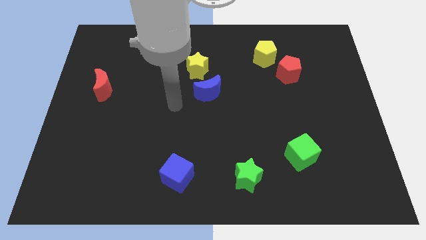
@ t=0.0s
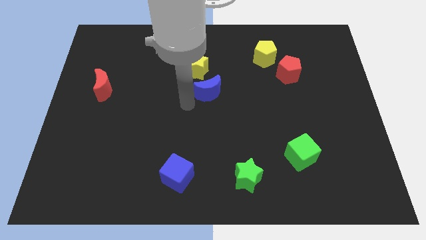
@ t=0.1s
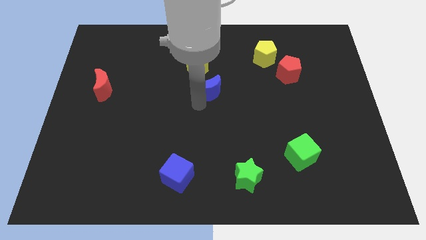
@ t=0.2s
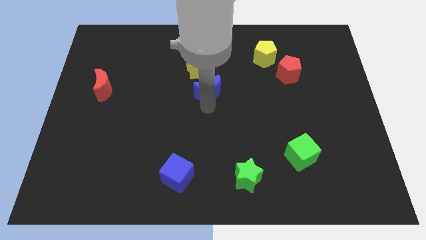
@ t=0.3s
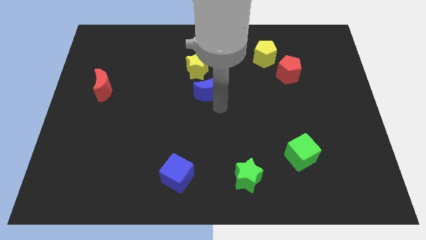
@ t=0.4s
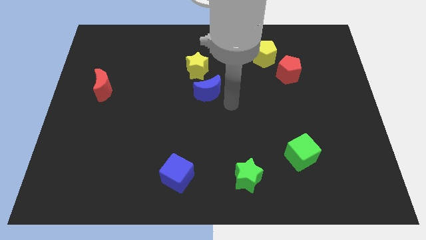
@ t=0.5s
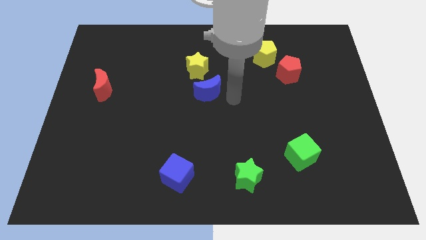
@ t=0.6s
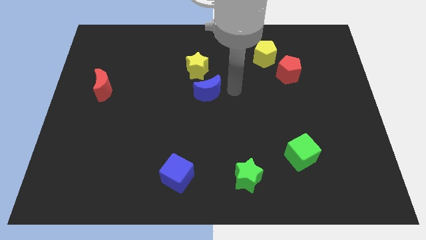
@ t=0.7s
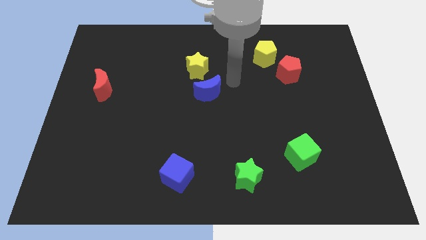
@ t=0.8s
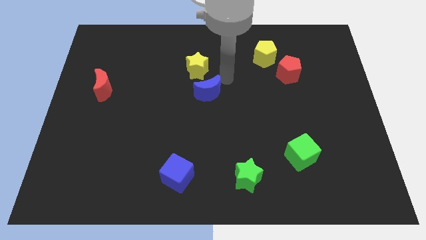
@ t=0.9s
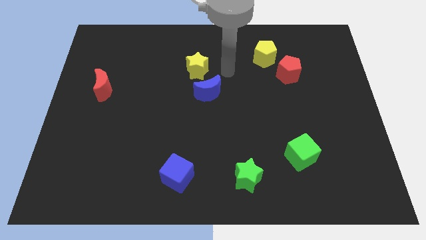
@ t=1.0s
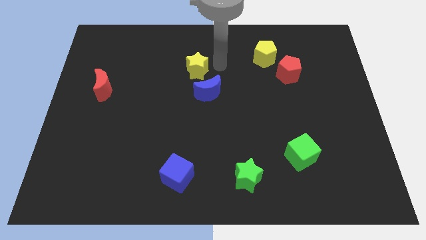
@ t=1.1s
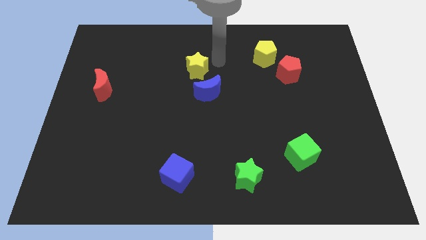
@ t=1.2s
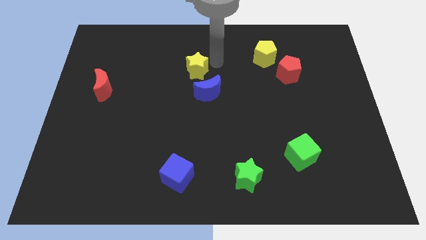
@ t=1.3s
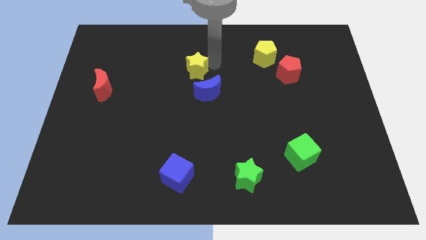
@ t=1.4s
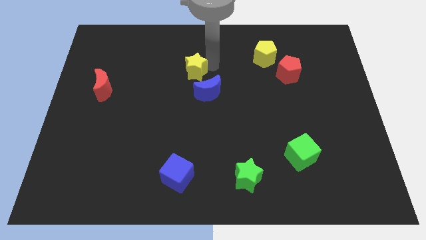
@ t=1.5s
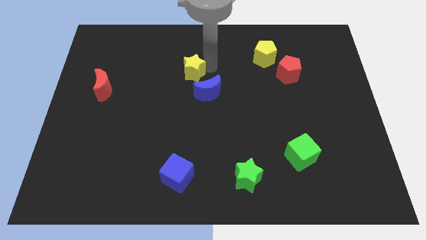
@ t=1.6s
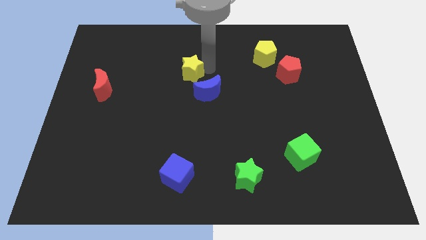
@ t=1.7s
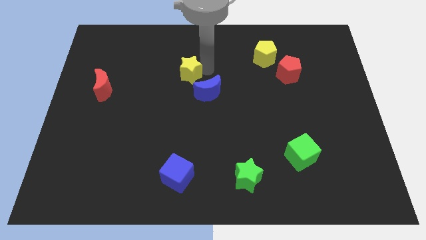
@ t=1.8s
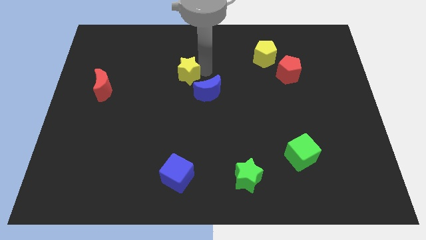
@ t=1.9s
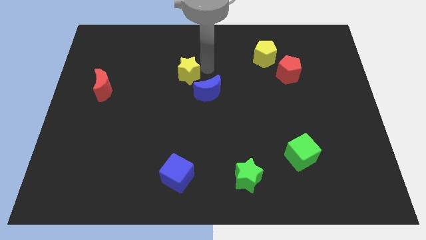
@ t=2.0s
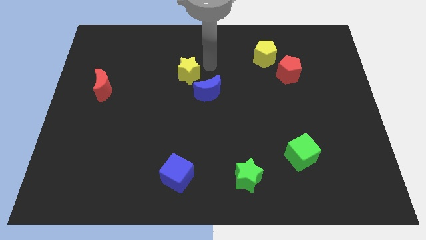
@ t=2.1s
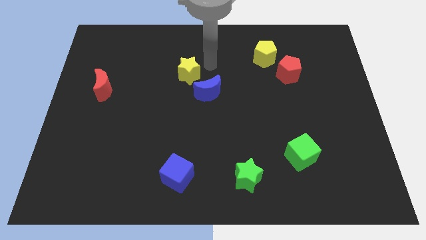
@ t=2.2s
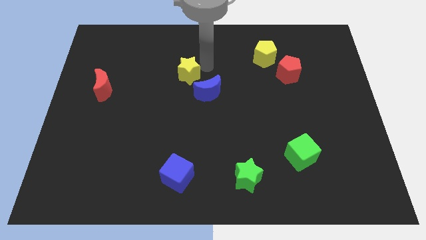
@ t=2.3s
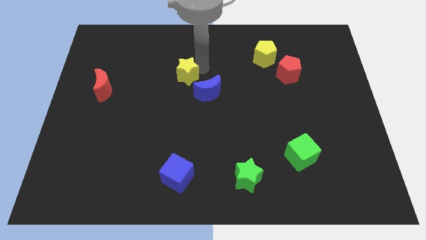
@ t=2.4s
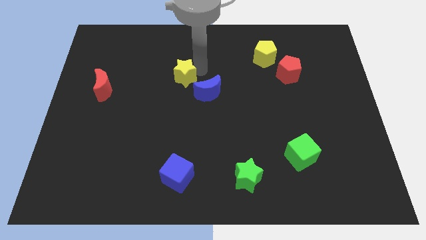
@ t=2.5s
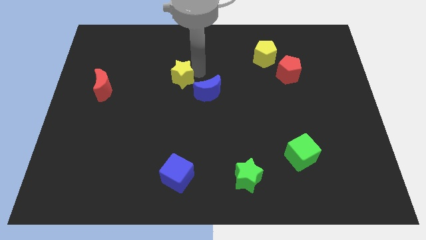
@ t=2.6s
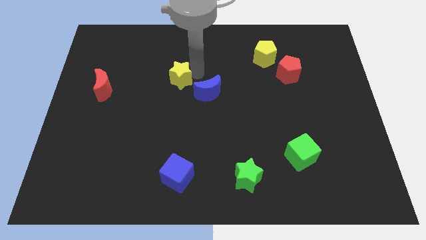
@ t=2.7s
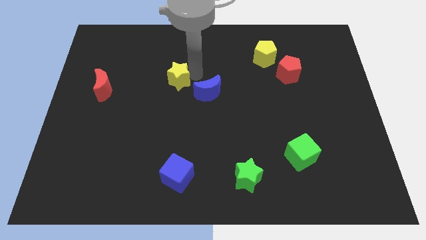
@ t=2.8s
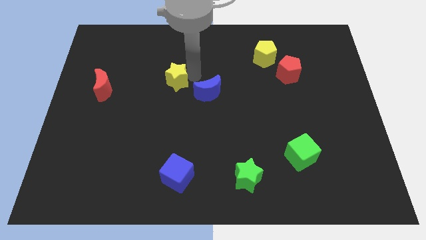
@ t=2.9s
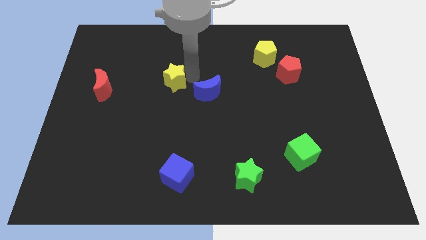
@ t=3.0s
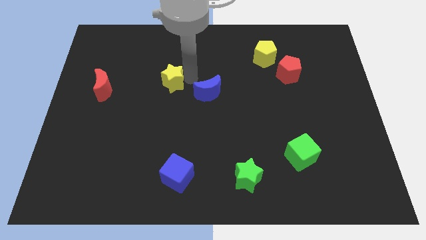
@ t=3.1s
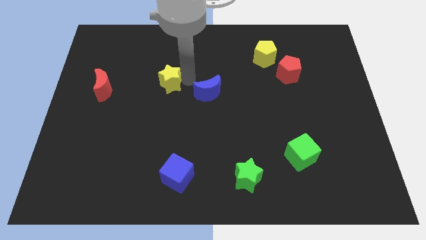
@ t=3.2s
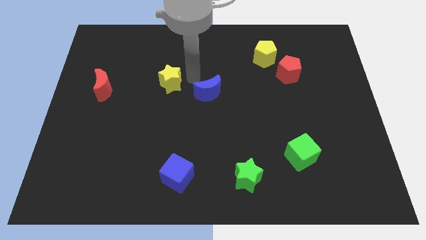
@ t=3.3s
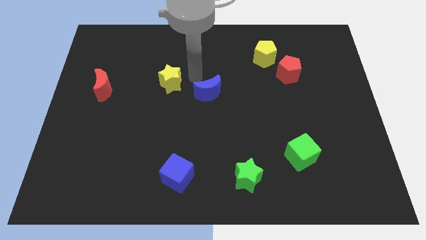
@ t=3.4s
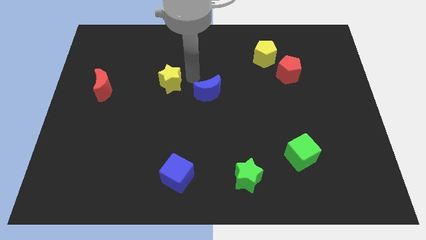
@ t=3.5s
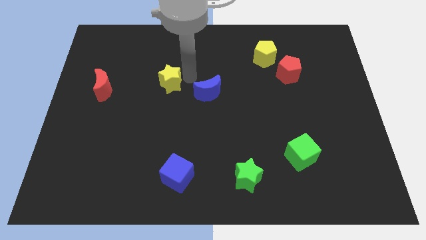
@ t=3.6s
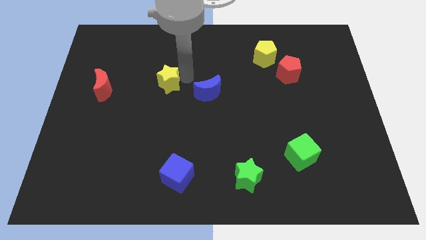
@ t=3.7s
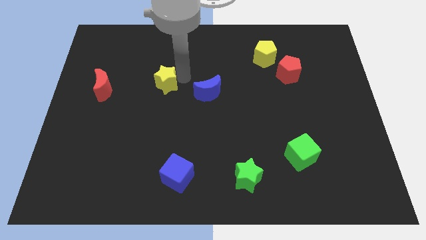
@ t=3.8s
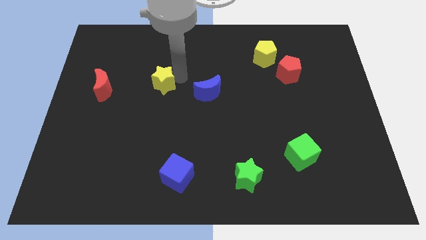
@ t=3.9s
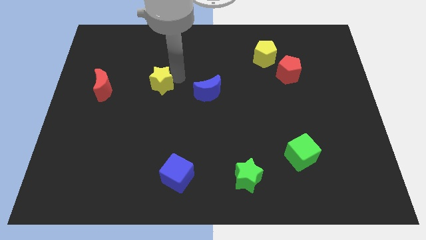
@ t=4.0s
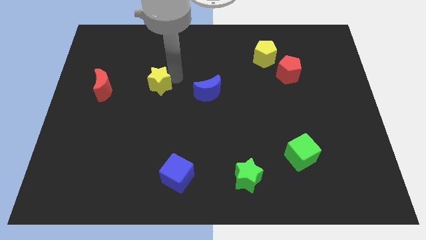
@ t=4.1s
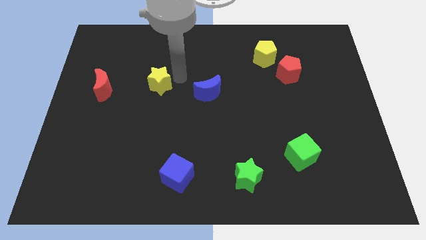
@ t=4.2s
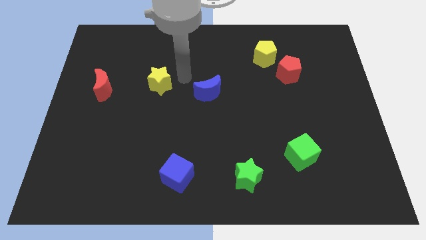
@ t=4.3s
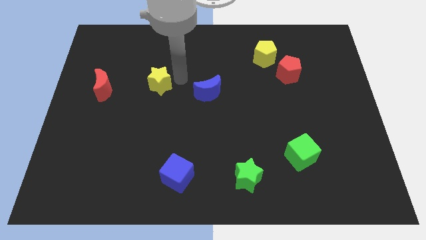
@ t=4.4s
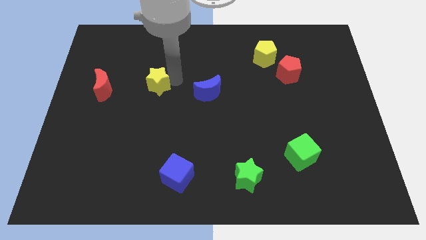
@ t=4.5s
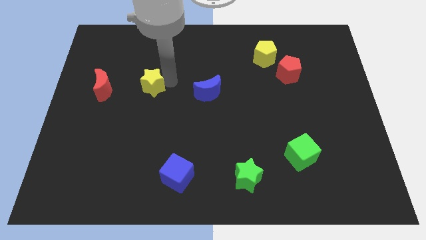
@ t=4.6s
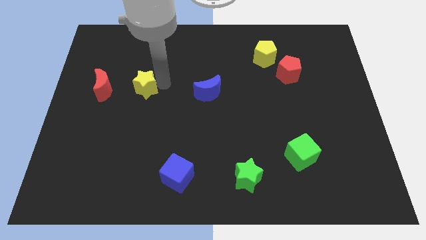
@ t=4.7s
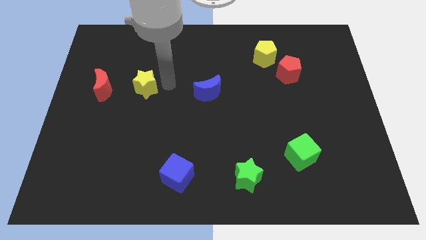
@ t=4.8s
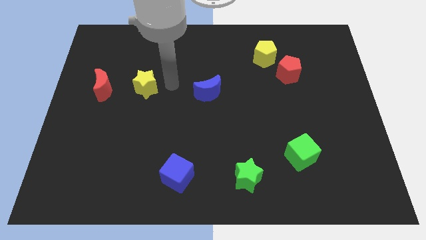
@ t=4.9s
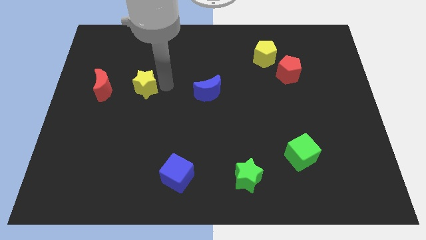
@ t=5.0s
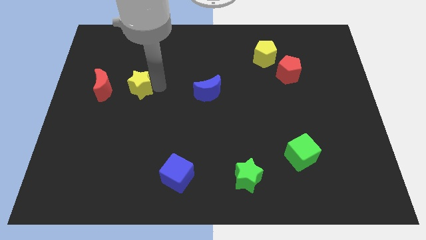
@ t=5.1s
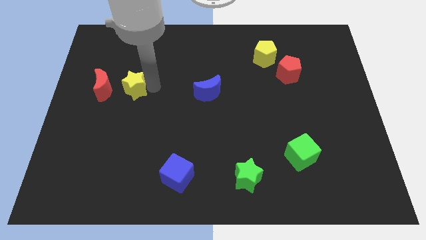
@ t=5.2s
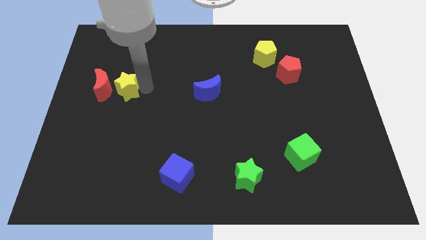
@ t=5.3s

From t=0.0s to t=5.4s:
put the yellow star close to the red moon

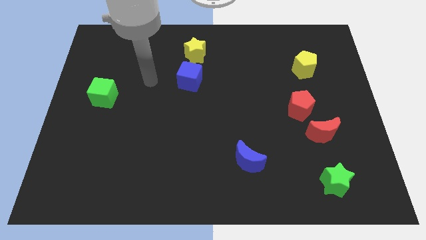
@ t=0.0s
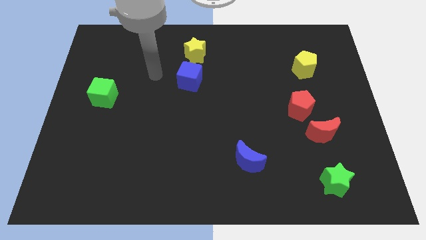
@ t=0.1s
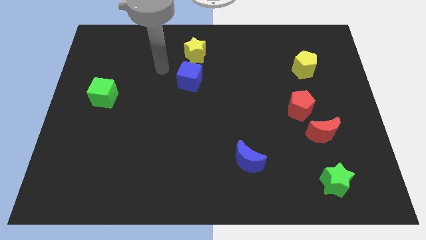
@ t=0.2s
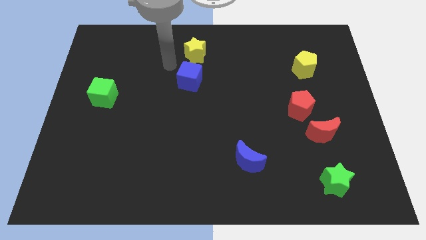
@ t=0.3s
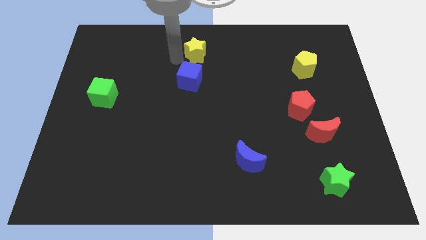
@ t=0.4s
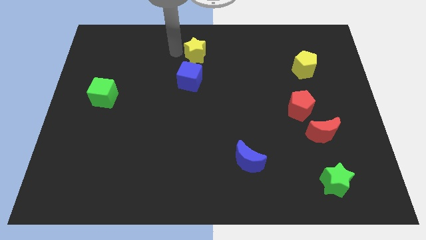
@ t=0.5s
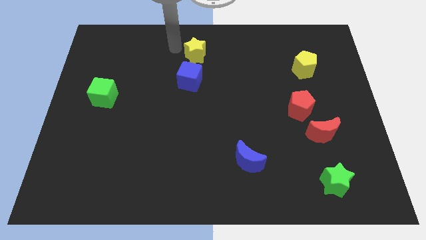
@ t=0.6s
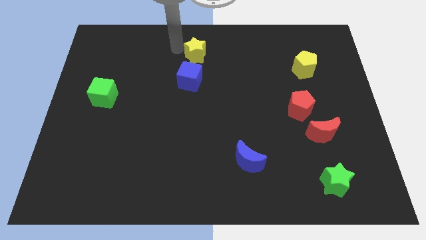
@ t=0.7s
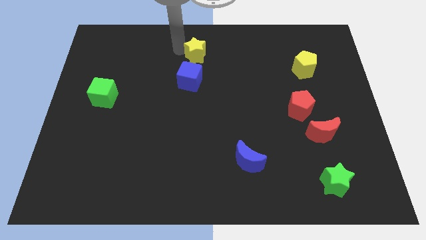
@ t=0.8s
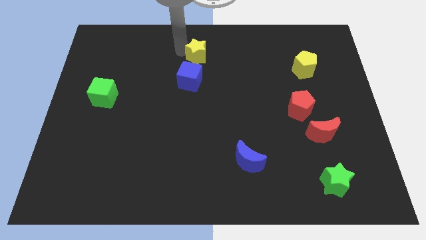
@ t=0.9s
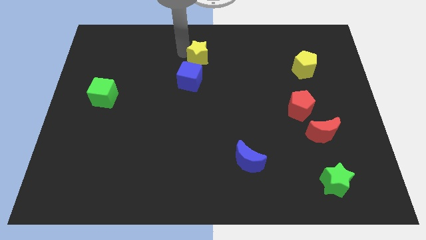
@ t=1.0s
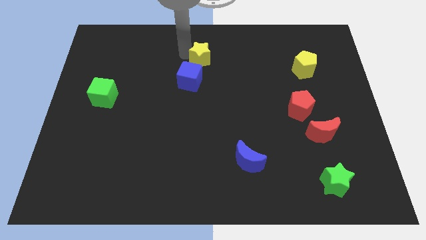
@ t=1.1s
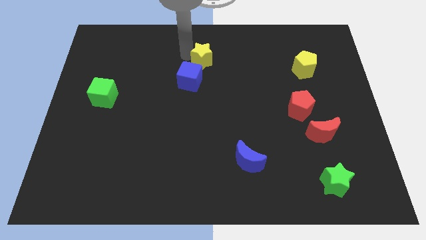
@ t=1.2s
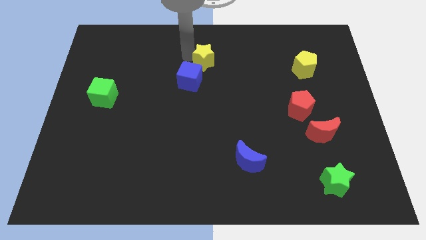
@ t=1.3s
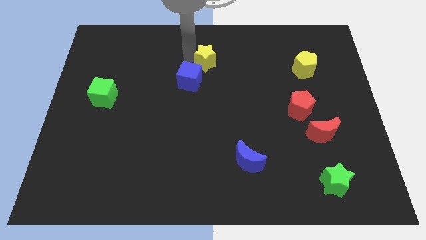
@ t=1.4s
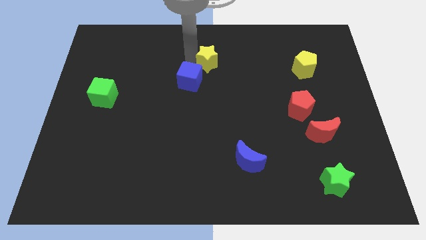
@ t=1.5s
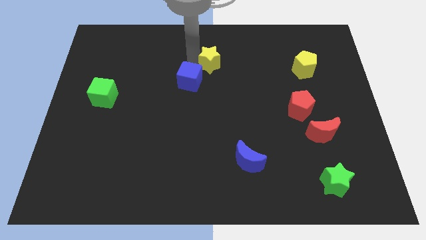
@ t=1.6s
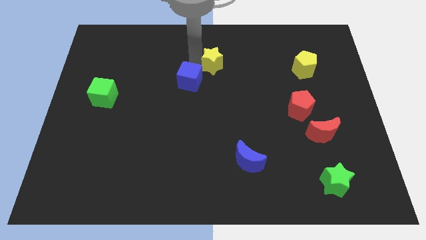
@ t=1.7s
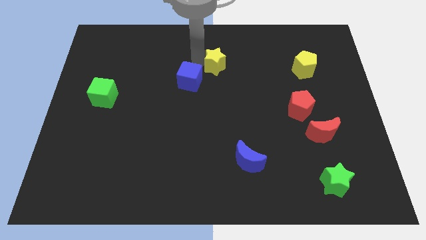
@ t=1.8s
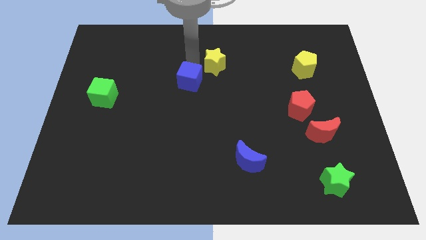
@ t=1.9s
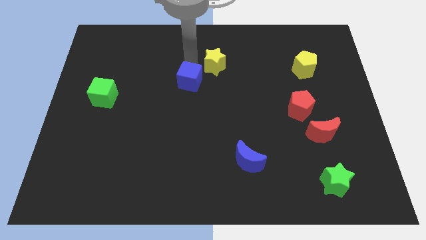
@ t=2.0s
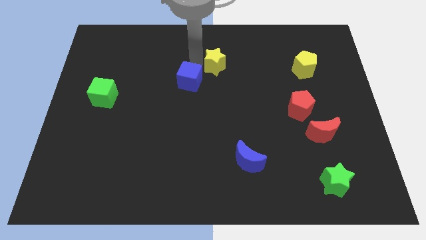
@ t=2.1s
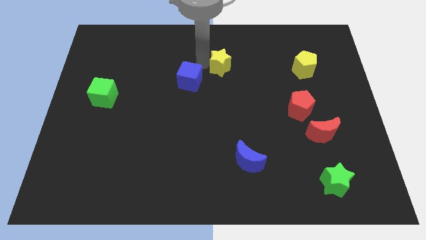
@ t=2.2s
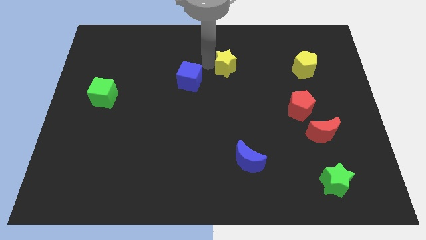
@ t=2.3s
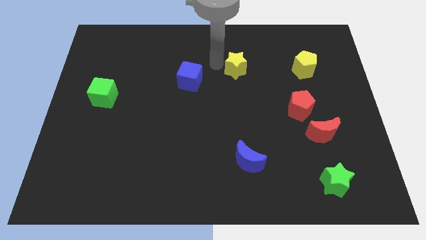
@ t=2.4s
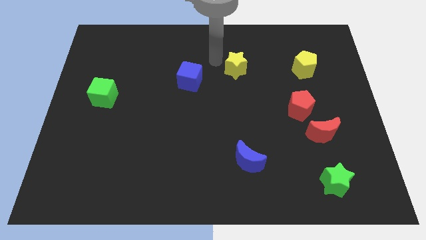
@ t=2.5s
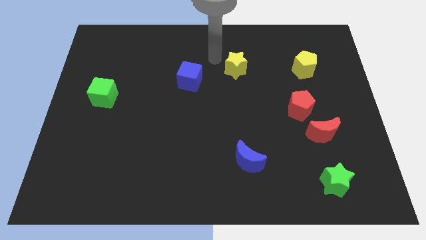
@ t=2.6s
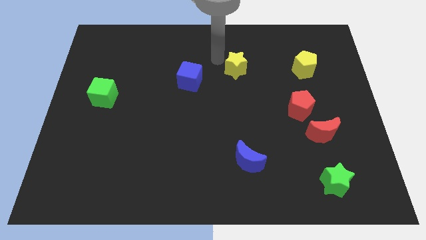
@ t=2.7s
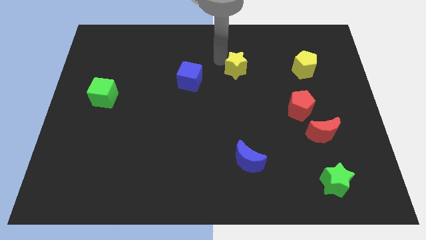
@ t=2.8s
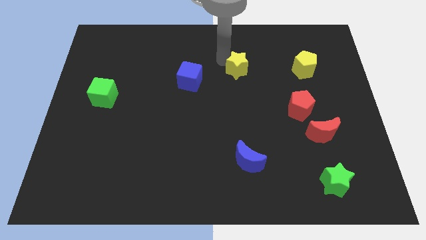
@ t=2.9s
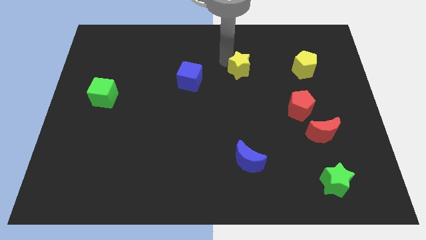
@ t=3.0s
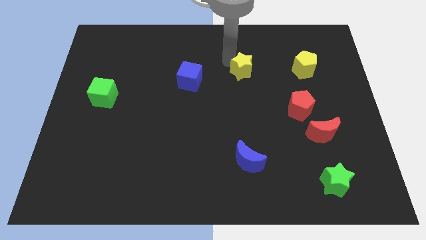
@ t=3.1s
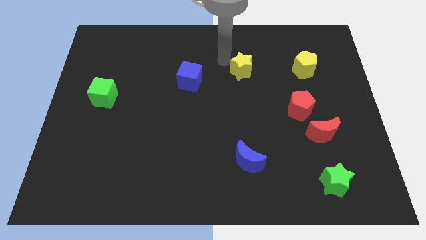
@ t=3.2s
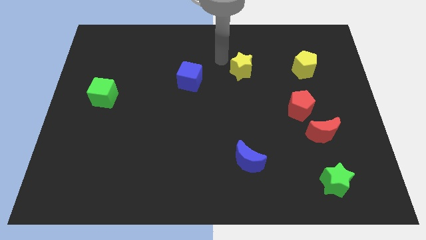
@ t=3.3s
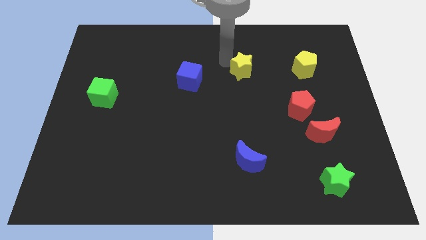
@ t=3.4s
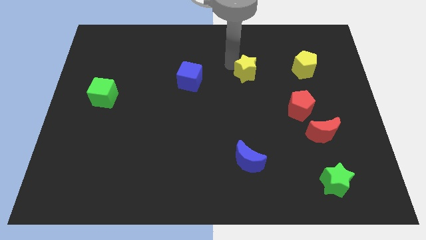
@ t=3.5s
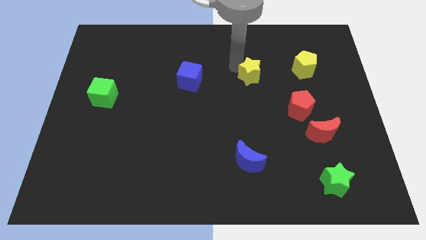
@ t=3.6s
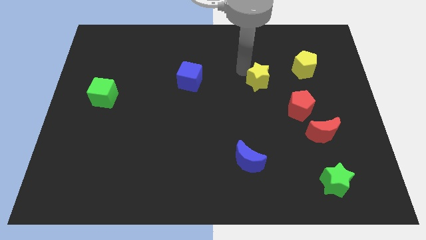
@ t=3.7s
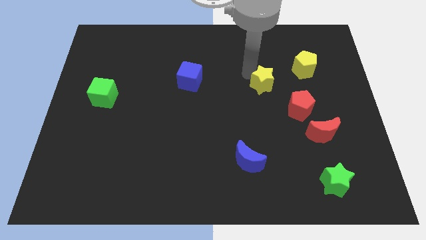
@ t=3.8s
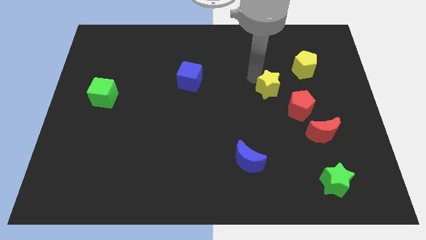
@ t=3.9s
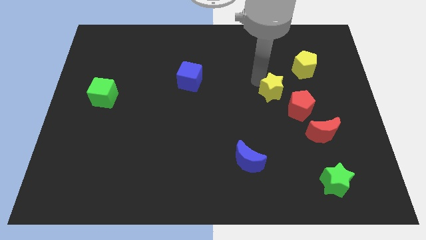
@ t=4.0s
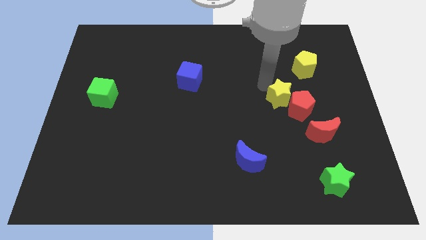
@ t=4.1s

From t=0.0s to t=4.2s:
slide the yellow star next to the red pentagon
